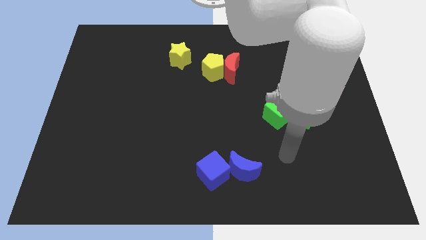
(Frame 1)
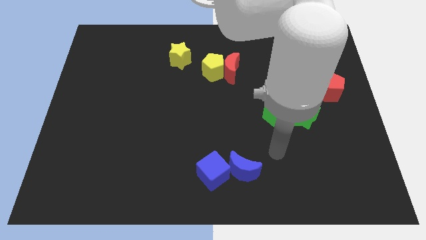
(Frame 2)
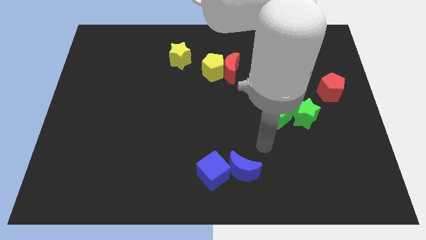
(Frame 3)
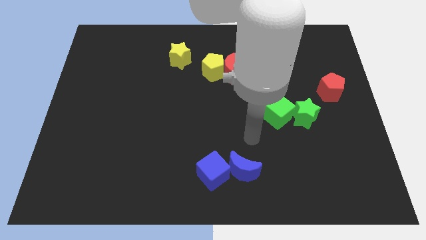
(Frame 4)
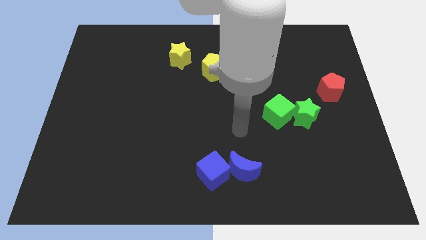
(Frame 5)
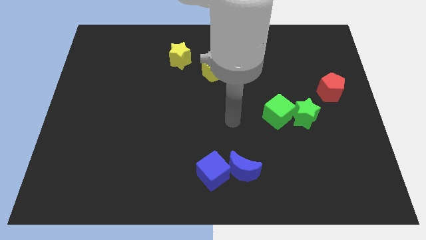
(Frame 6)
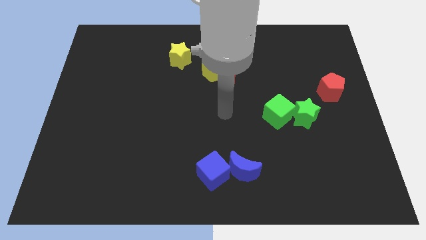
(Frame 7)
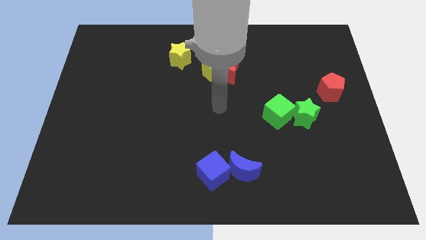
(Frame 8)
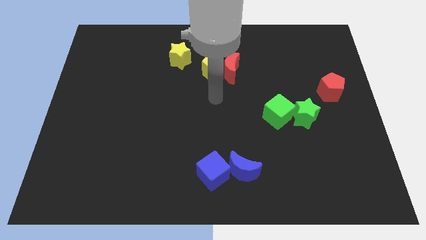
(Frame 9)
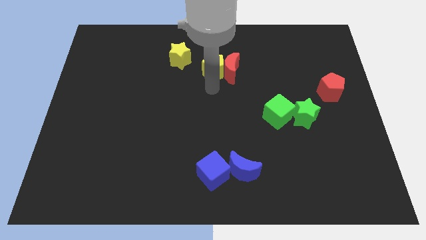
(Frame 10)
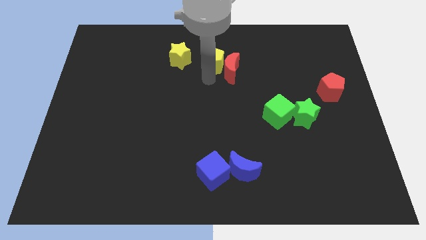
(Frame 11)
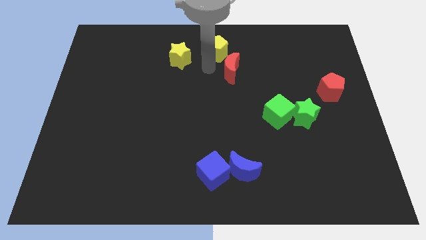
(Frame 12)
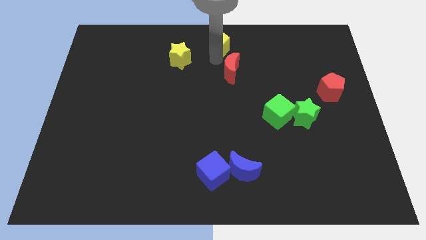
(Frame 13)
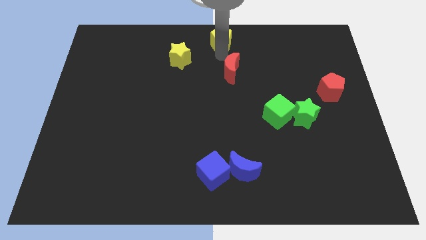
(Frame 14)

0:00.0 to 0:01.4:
move the red moon away from the yellow pentagon

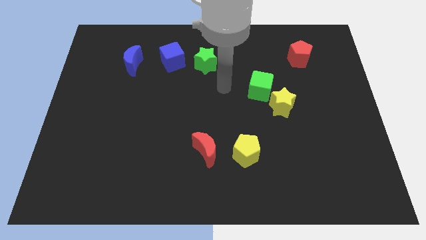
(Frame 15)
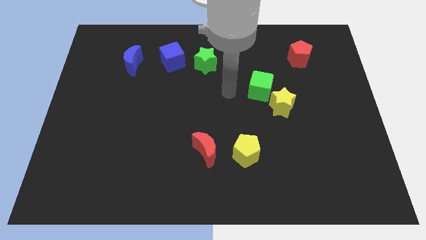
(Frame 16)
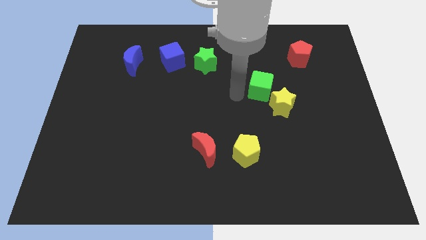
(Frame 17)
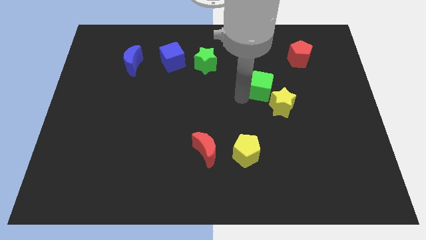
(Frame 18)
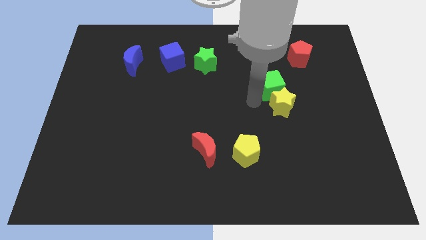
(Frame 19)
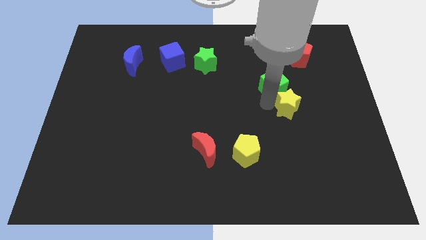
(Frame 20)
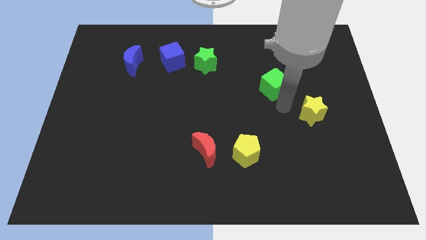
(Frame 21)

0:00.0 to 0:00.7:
pull the green cube apart from the yellow star

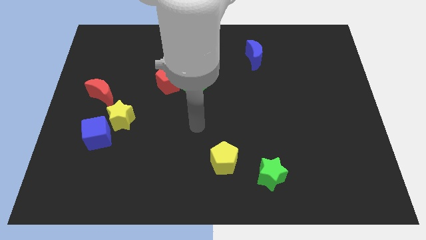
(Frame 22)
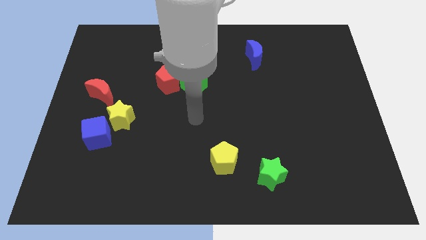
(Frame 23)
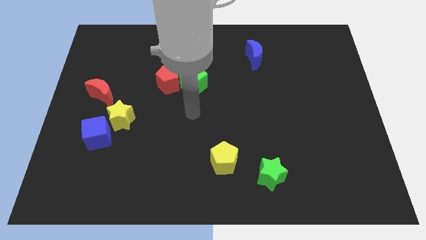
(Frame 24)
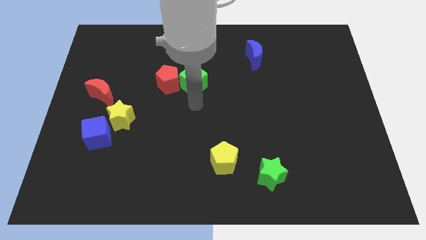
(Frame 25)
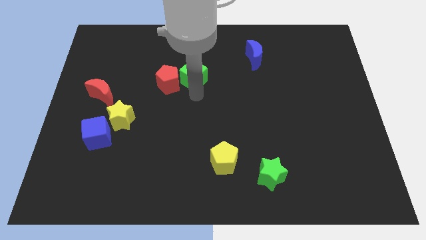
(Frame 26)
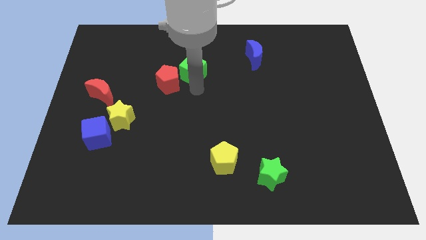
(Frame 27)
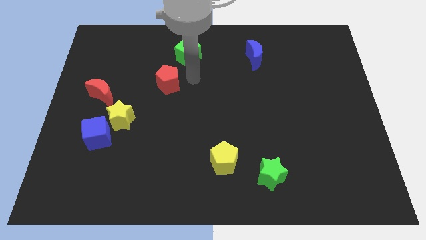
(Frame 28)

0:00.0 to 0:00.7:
pull the red pentagon apart from the green cube

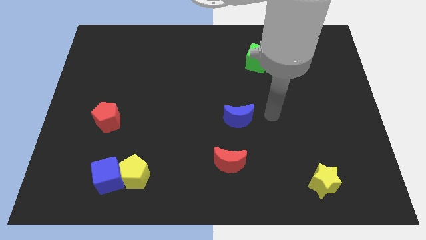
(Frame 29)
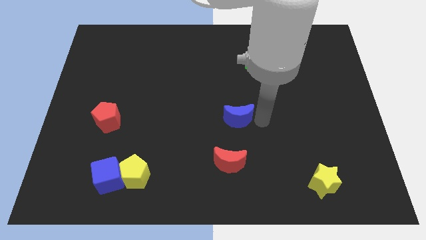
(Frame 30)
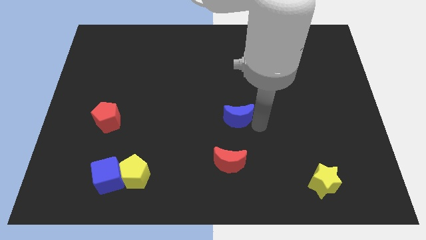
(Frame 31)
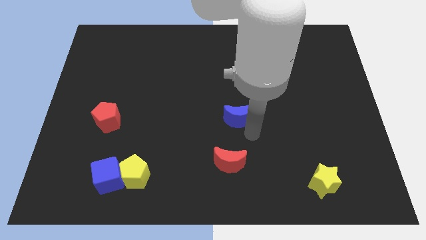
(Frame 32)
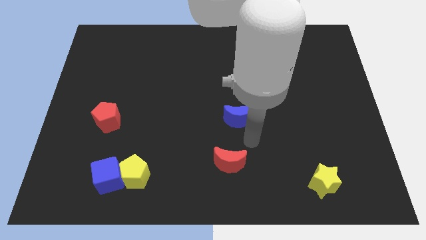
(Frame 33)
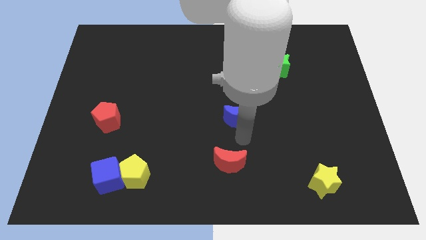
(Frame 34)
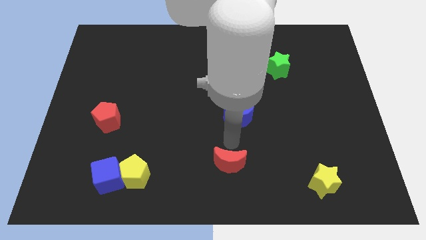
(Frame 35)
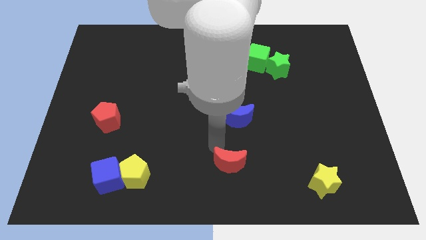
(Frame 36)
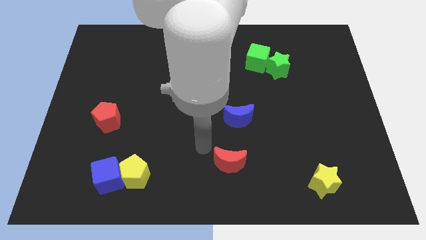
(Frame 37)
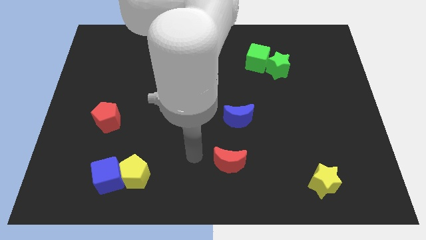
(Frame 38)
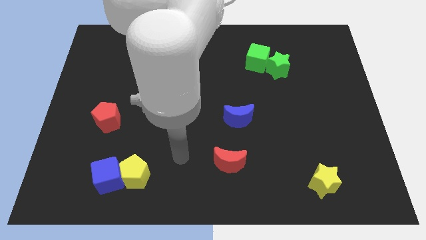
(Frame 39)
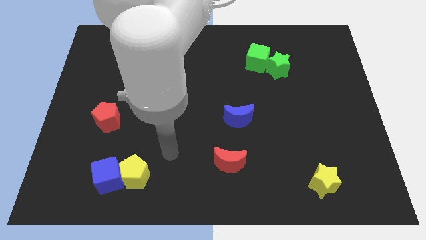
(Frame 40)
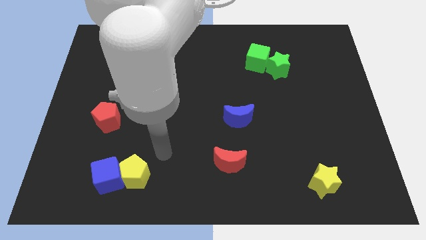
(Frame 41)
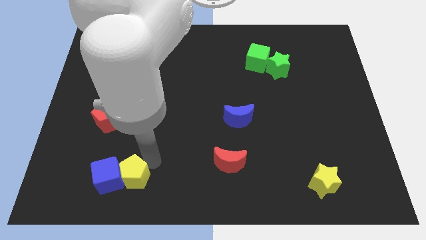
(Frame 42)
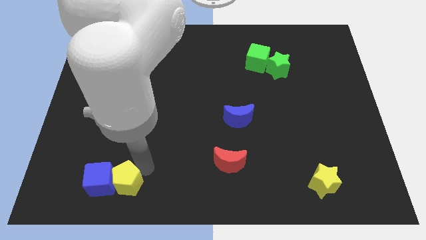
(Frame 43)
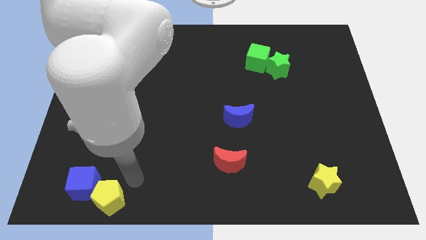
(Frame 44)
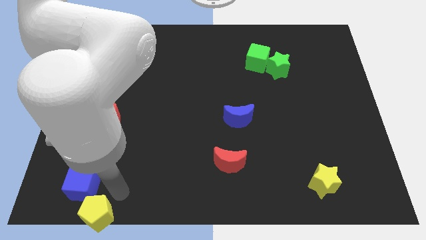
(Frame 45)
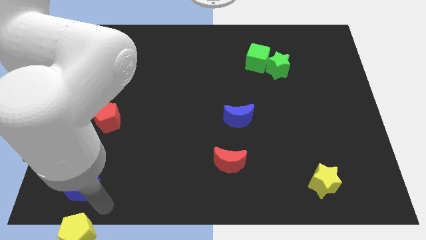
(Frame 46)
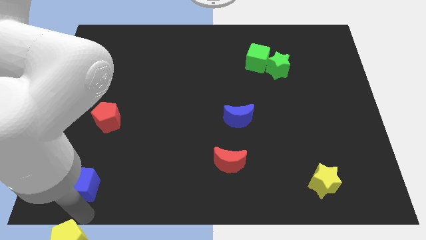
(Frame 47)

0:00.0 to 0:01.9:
separate the blue cube from the yellow pentagon

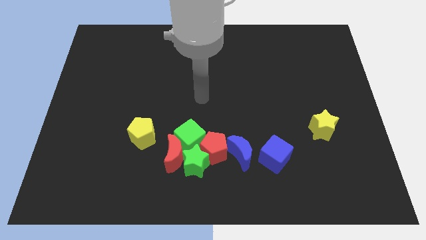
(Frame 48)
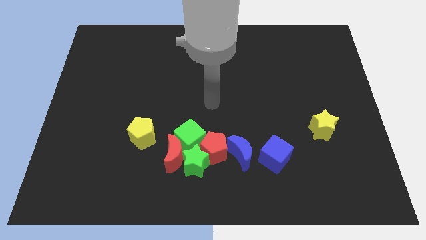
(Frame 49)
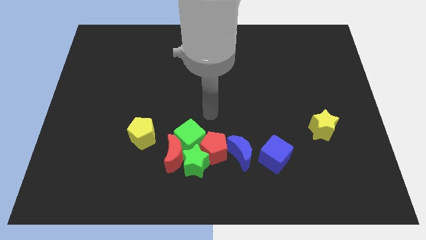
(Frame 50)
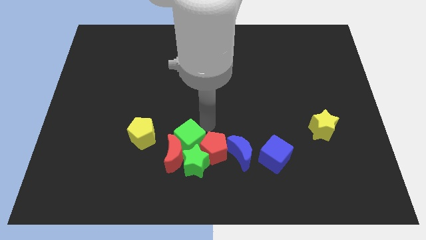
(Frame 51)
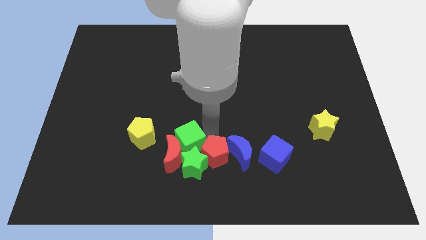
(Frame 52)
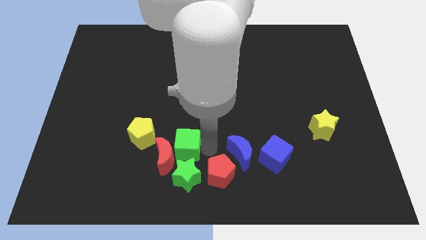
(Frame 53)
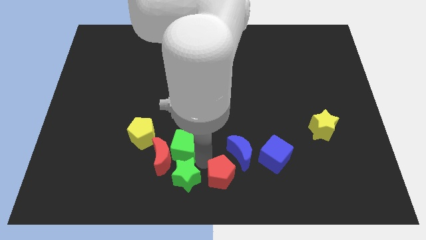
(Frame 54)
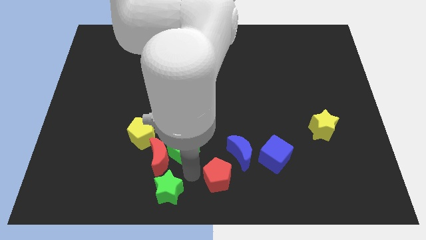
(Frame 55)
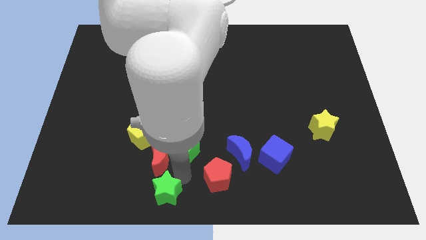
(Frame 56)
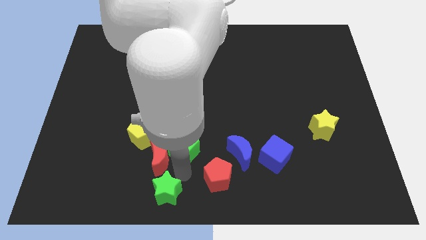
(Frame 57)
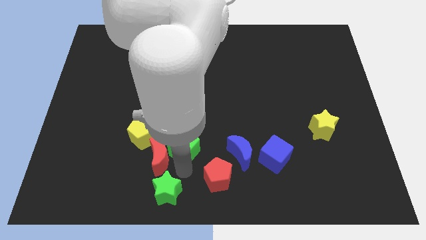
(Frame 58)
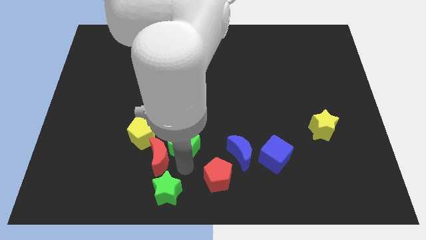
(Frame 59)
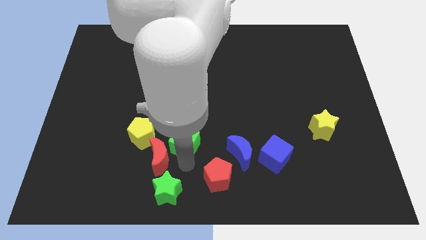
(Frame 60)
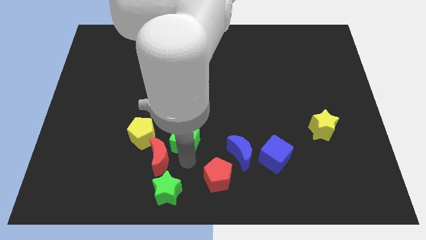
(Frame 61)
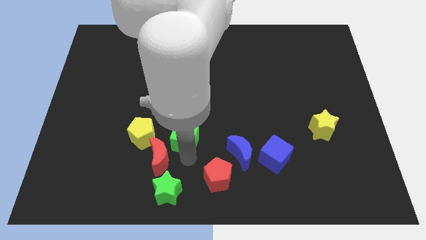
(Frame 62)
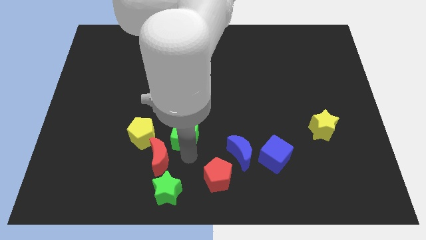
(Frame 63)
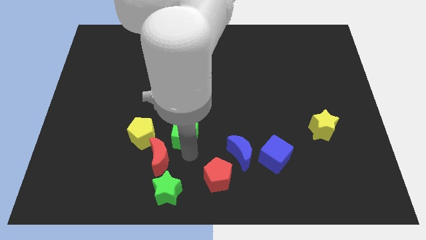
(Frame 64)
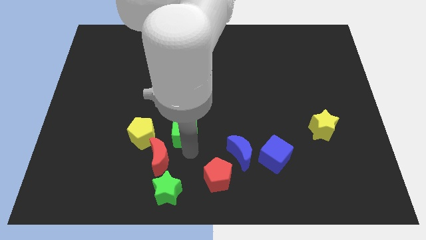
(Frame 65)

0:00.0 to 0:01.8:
separate the green cube from the red moon, red pentagon, and green star

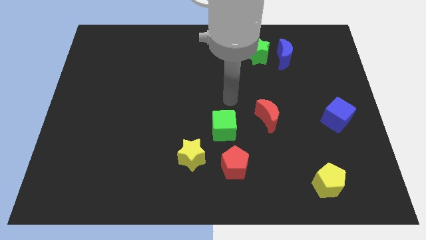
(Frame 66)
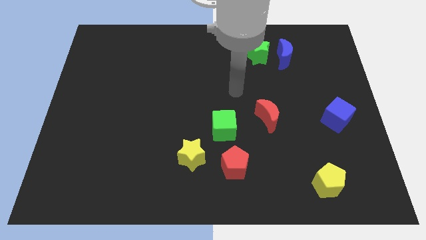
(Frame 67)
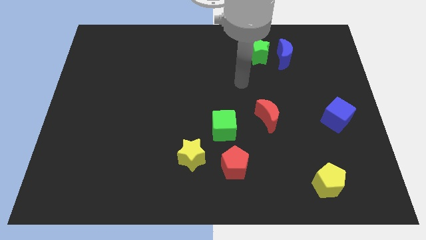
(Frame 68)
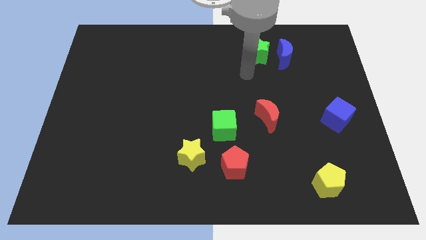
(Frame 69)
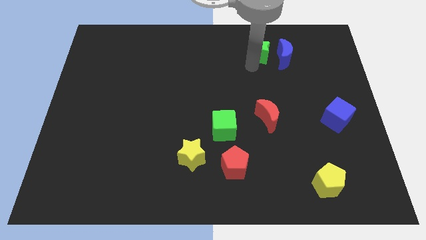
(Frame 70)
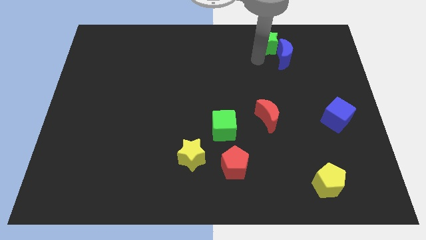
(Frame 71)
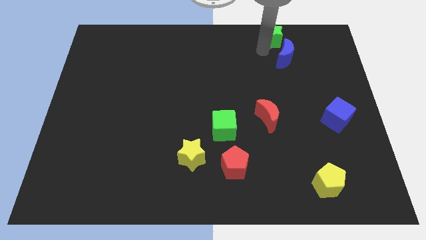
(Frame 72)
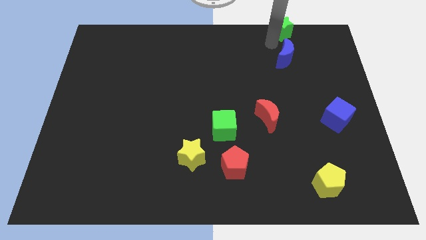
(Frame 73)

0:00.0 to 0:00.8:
pull the blue moon apart from the green star

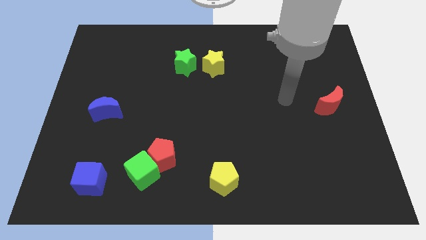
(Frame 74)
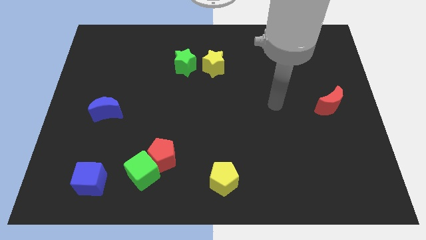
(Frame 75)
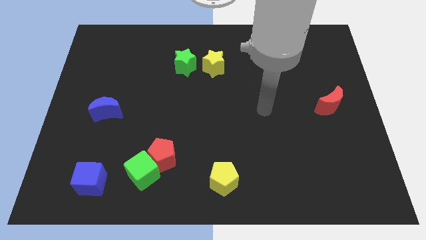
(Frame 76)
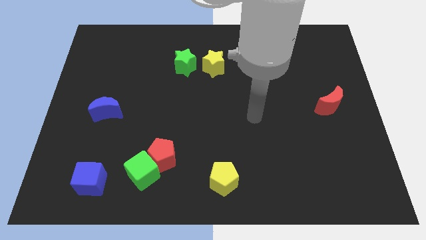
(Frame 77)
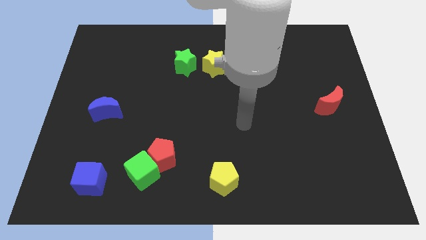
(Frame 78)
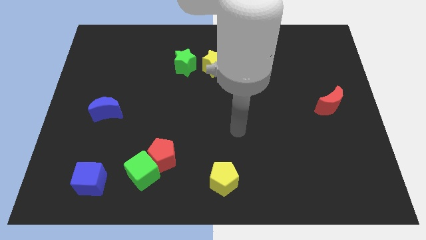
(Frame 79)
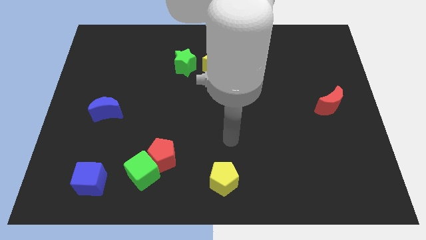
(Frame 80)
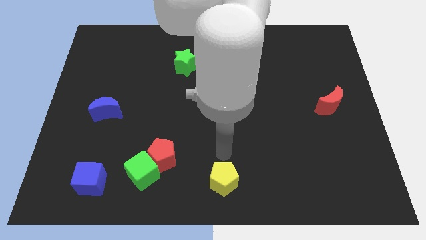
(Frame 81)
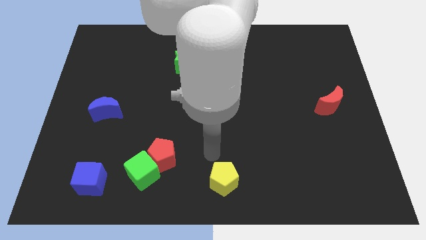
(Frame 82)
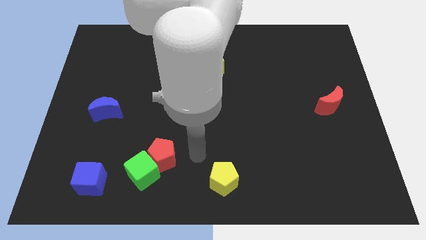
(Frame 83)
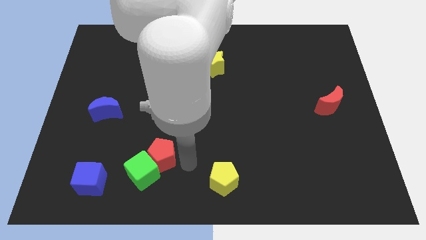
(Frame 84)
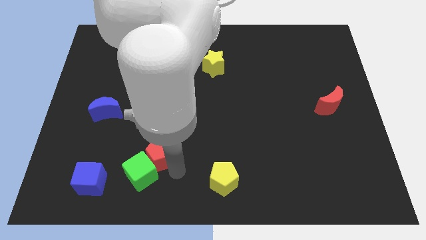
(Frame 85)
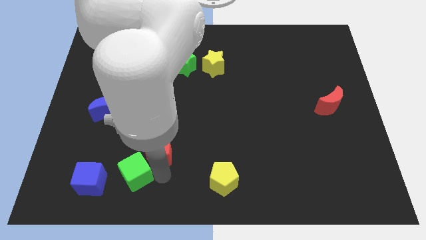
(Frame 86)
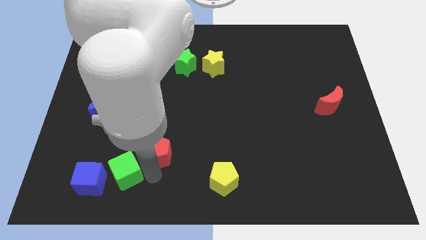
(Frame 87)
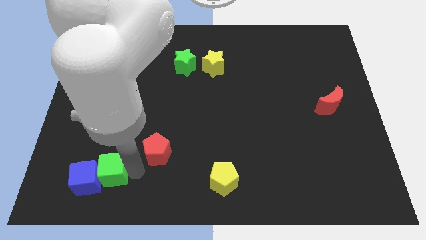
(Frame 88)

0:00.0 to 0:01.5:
separate the red pentagon from the green cube

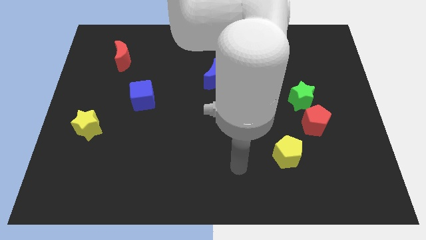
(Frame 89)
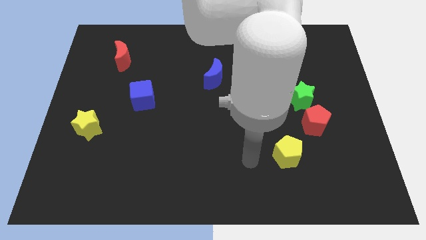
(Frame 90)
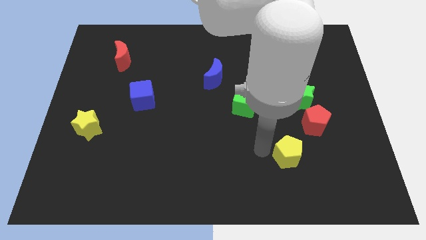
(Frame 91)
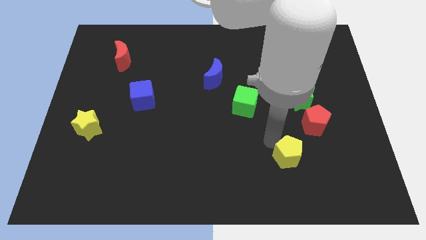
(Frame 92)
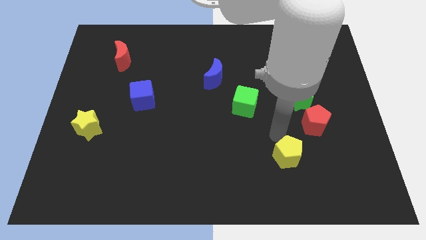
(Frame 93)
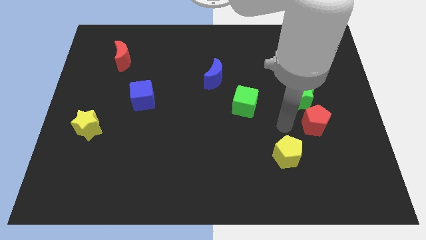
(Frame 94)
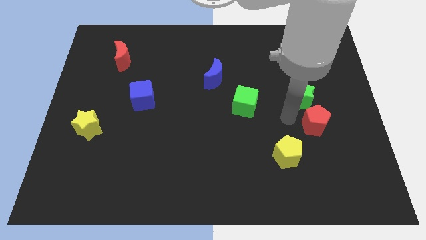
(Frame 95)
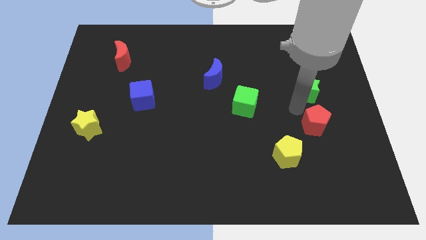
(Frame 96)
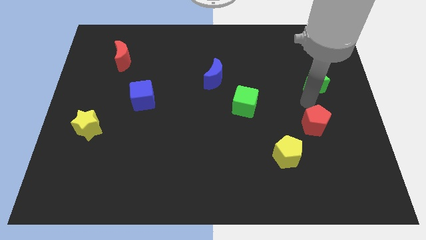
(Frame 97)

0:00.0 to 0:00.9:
pull the red pentagon apart from the green star
